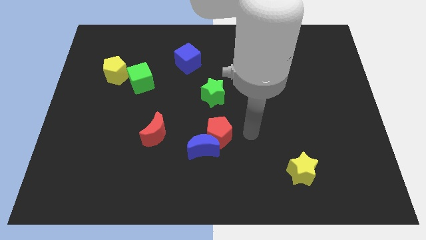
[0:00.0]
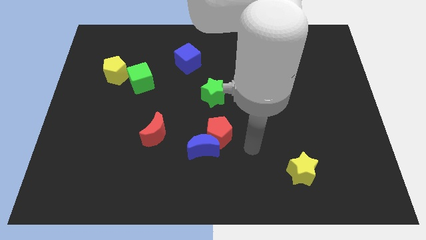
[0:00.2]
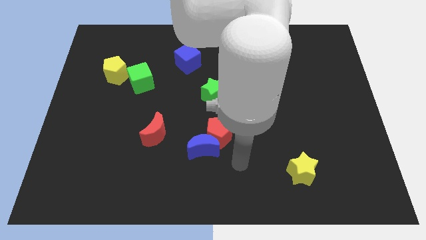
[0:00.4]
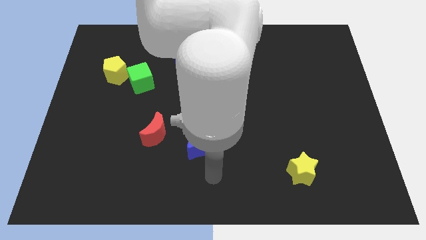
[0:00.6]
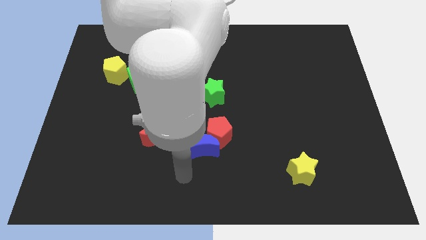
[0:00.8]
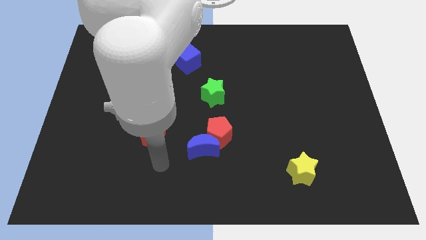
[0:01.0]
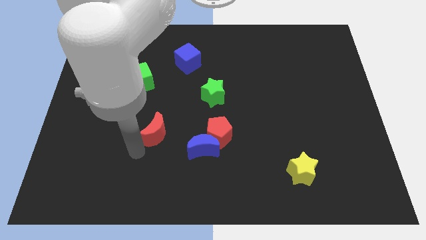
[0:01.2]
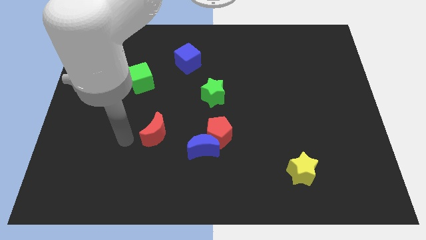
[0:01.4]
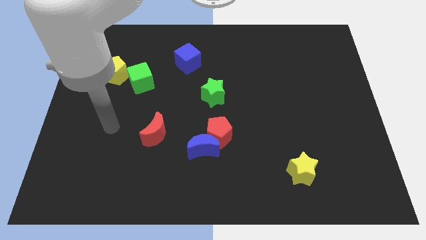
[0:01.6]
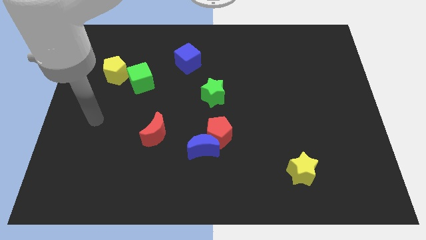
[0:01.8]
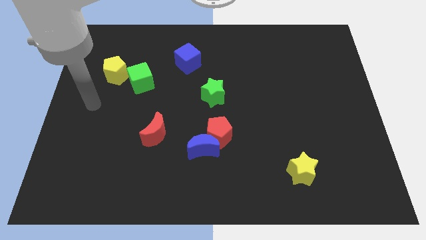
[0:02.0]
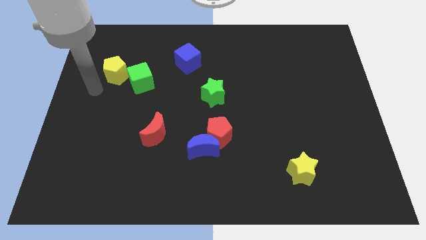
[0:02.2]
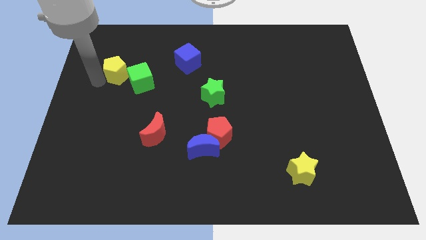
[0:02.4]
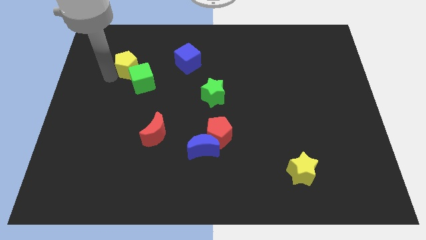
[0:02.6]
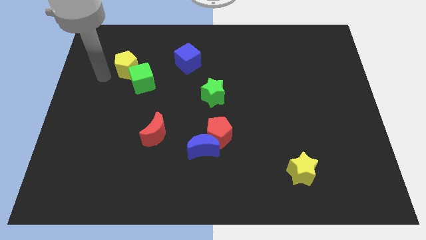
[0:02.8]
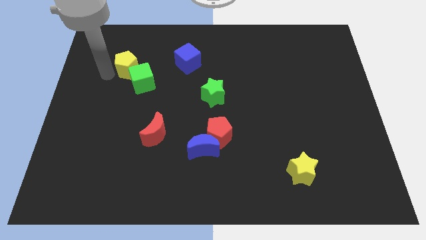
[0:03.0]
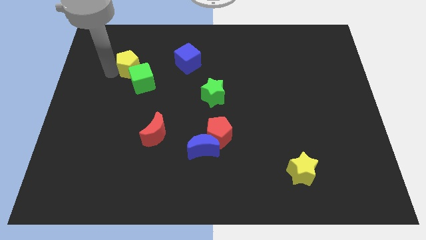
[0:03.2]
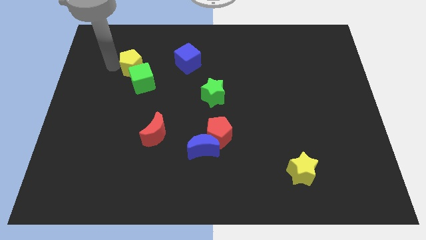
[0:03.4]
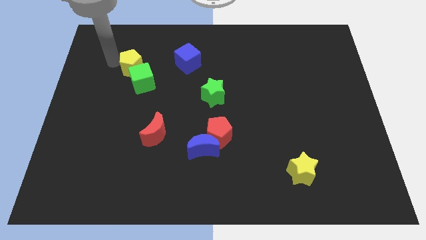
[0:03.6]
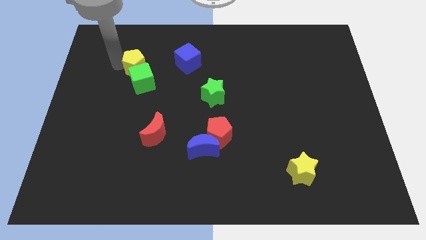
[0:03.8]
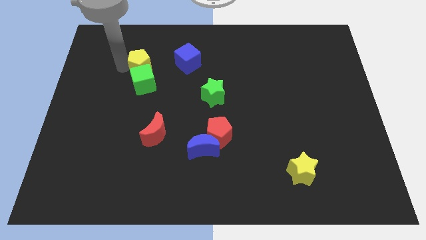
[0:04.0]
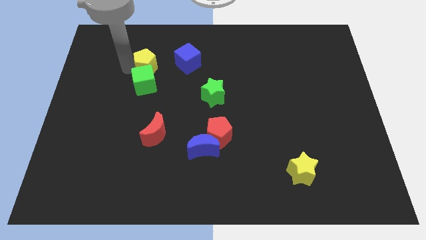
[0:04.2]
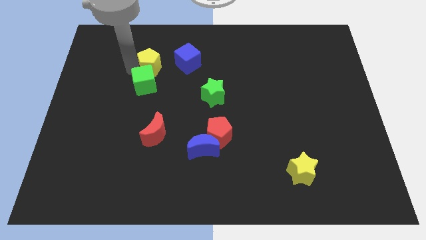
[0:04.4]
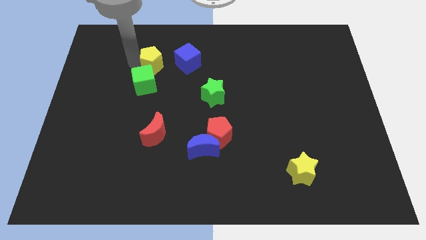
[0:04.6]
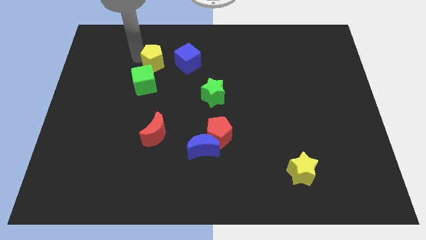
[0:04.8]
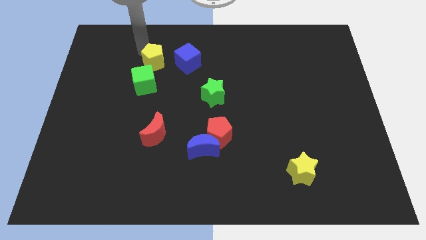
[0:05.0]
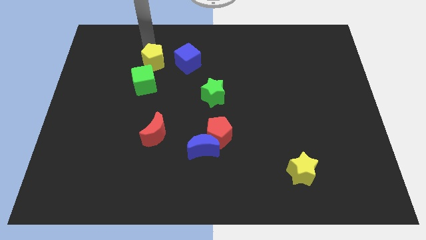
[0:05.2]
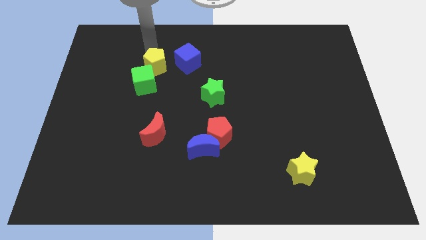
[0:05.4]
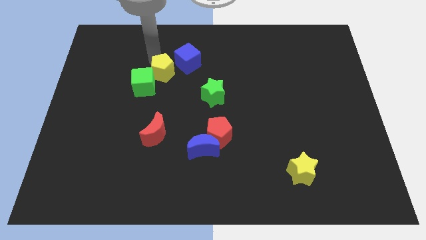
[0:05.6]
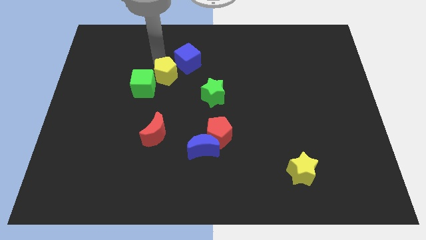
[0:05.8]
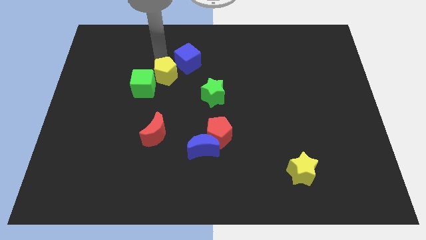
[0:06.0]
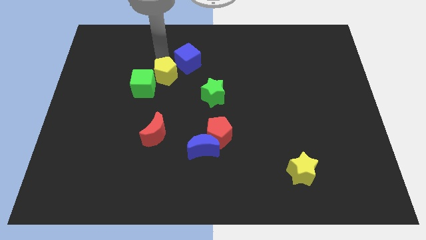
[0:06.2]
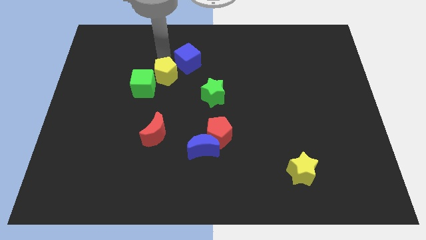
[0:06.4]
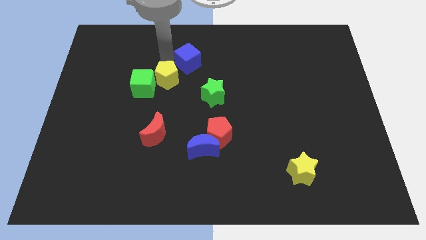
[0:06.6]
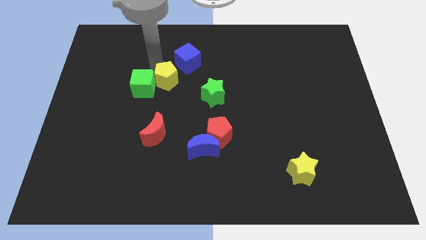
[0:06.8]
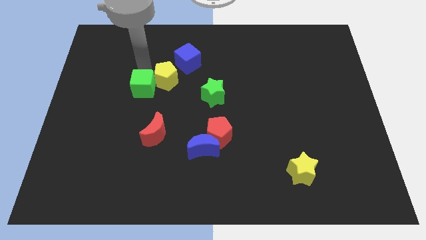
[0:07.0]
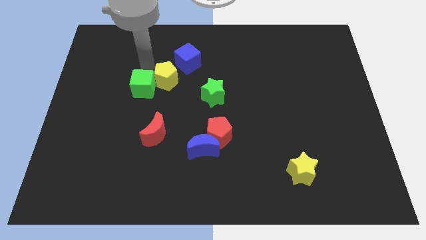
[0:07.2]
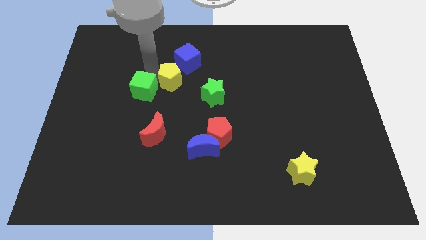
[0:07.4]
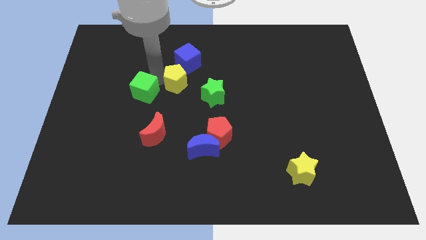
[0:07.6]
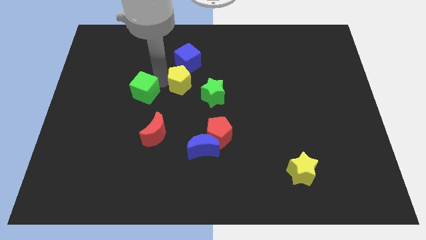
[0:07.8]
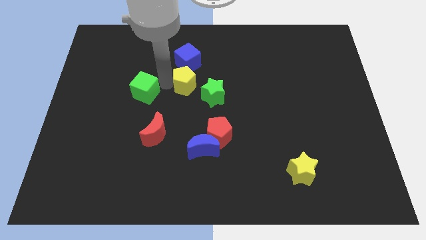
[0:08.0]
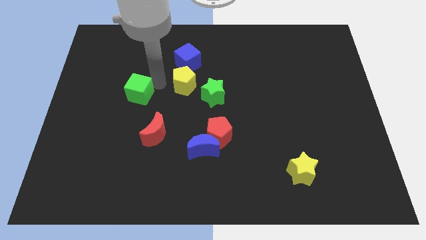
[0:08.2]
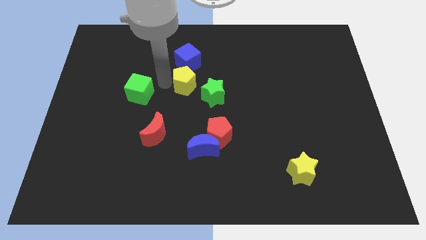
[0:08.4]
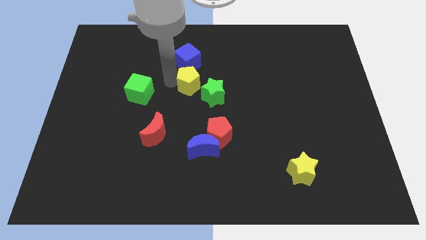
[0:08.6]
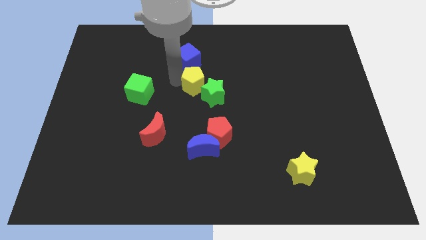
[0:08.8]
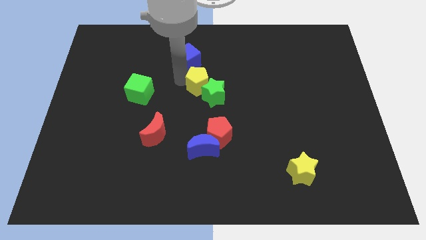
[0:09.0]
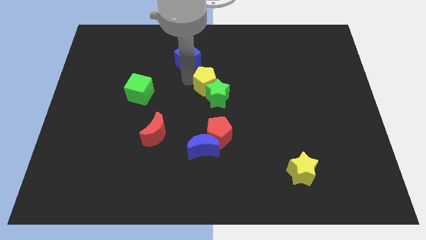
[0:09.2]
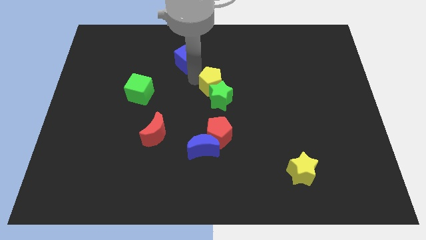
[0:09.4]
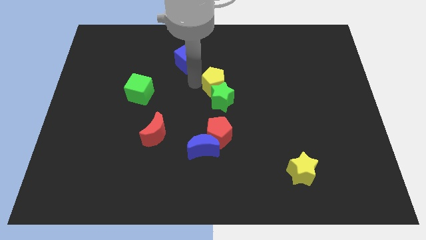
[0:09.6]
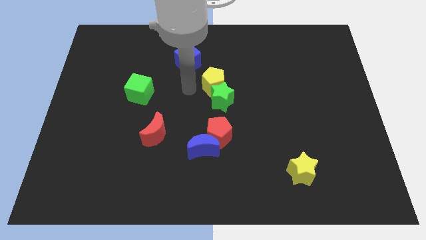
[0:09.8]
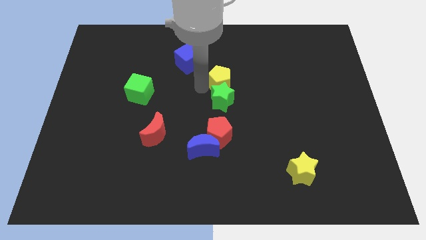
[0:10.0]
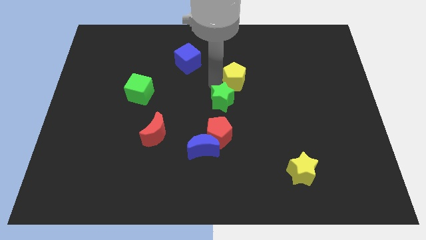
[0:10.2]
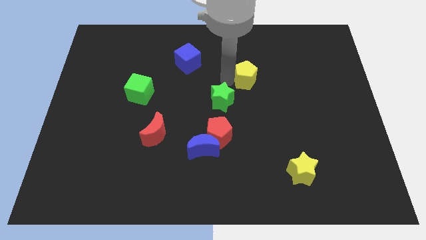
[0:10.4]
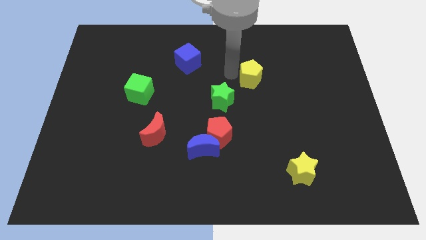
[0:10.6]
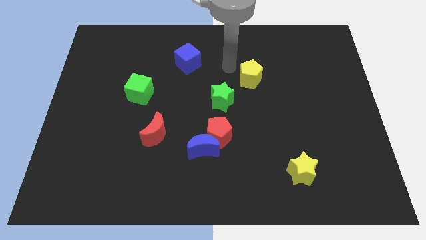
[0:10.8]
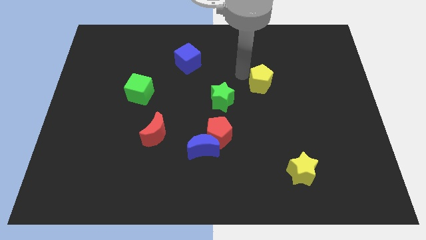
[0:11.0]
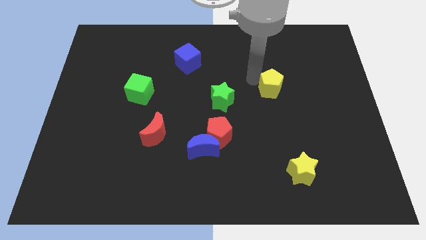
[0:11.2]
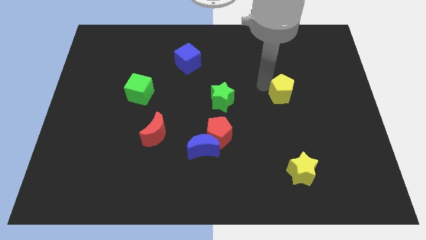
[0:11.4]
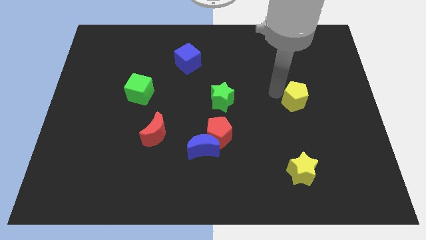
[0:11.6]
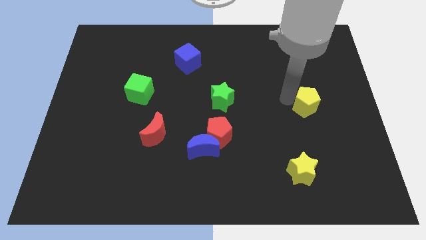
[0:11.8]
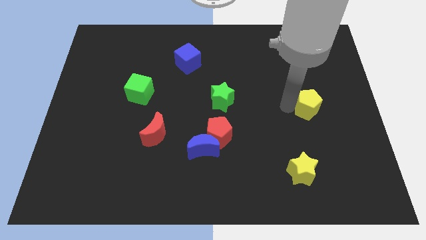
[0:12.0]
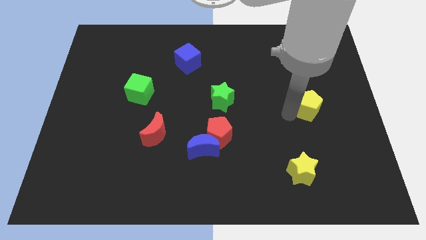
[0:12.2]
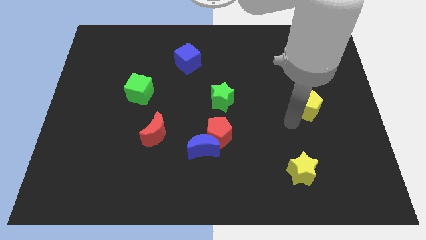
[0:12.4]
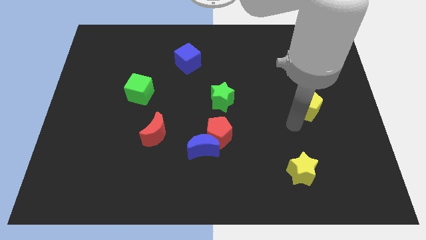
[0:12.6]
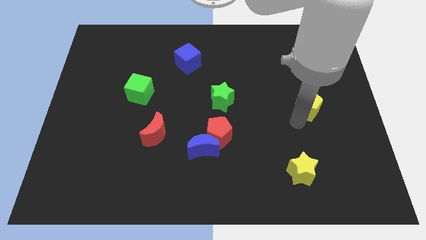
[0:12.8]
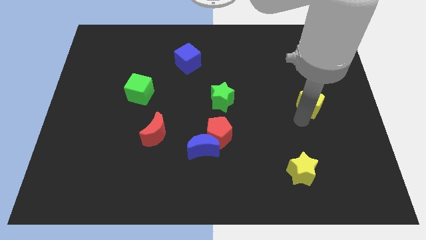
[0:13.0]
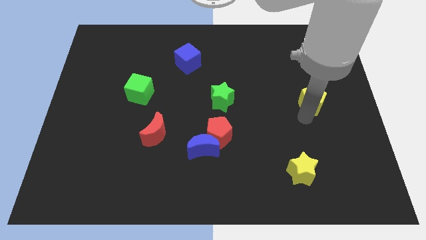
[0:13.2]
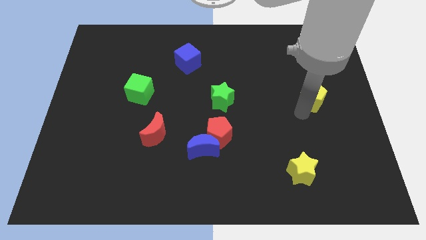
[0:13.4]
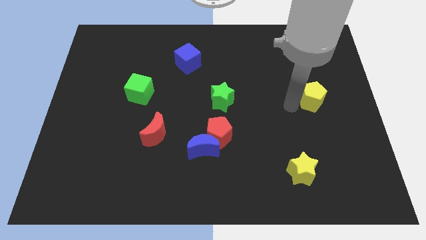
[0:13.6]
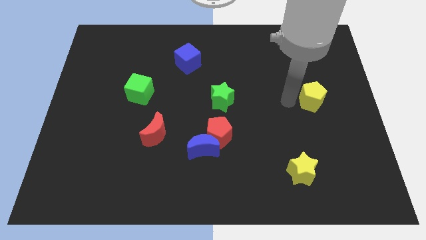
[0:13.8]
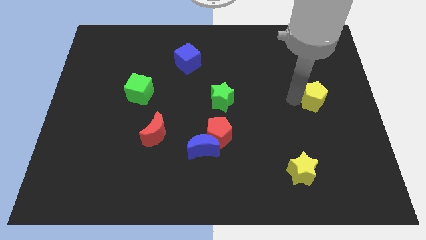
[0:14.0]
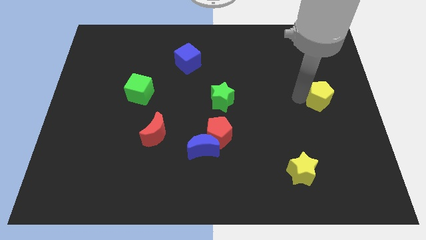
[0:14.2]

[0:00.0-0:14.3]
put the yellow pentagon to the right side of the board
